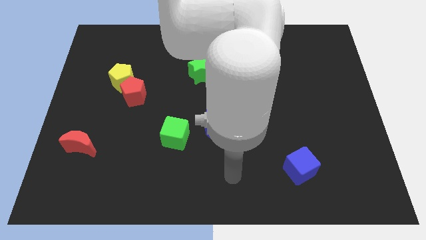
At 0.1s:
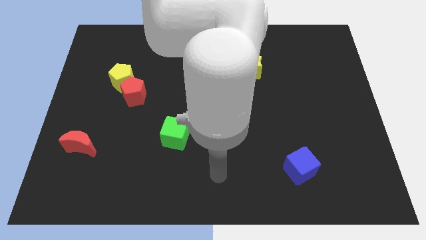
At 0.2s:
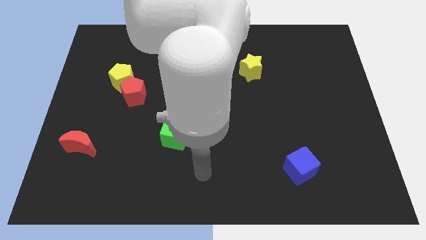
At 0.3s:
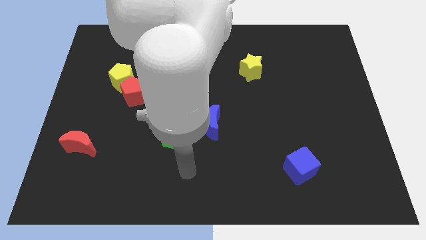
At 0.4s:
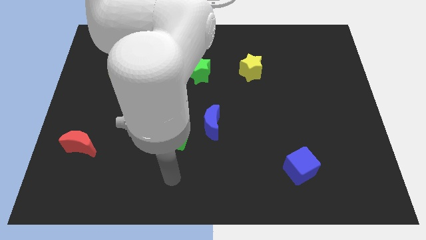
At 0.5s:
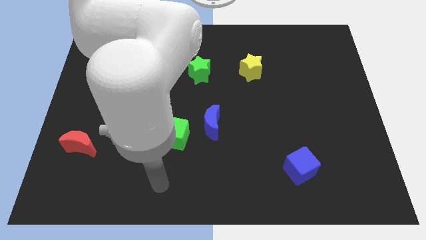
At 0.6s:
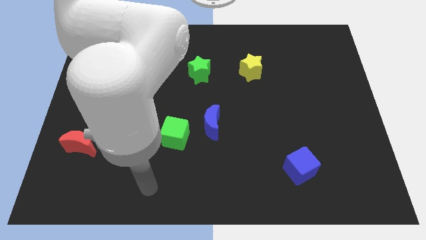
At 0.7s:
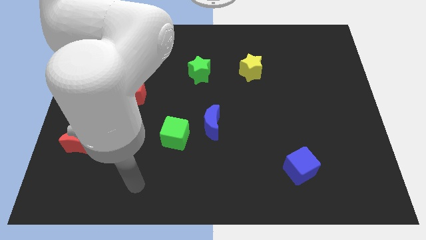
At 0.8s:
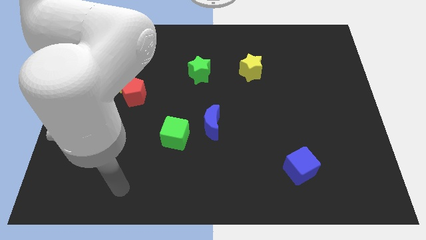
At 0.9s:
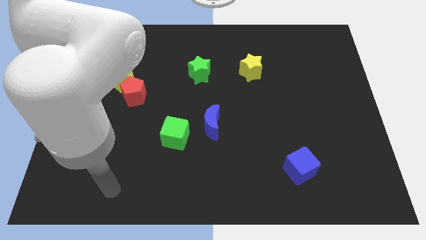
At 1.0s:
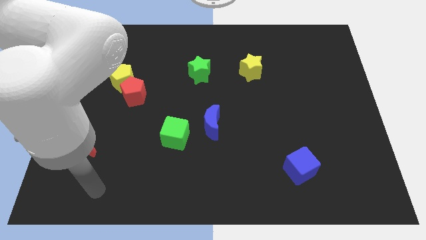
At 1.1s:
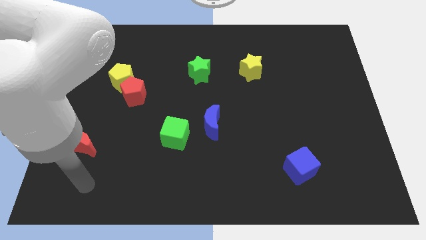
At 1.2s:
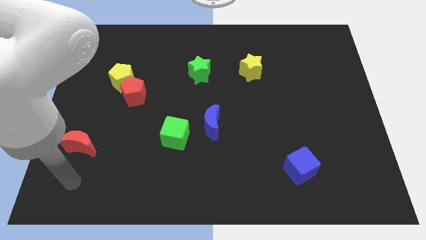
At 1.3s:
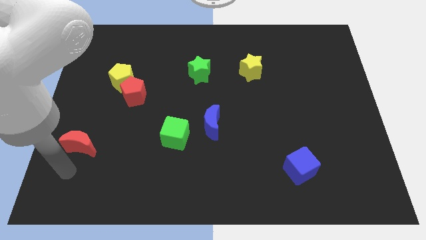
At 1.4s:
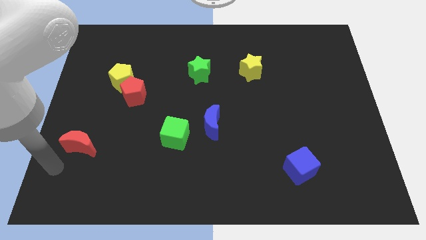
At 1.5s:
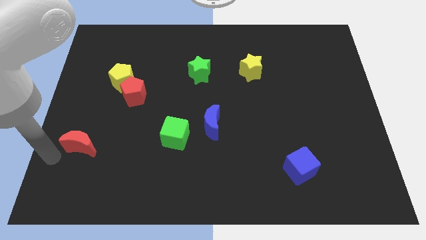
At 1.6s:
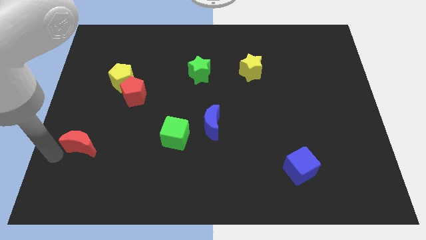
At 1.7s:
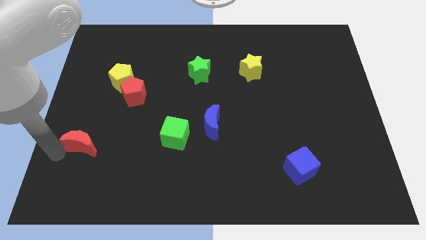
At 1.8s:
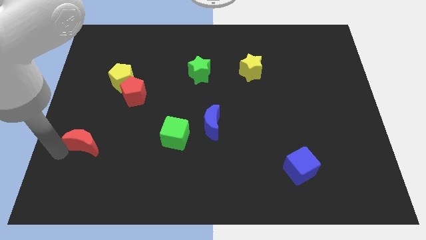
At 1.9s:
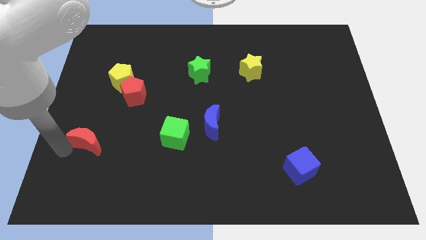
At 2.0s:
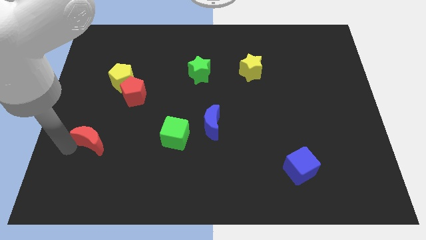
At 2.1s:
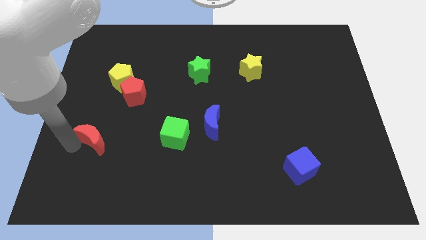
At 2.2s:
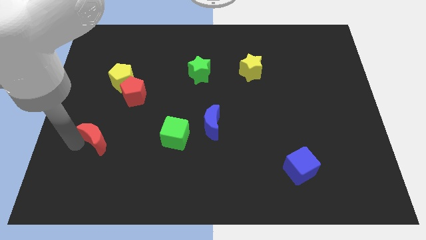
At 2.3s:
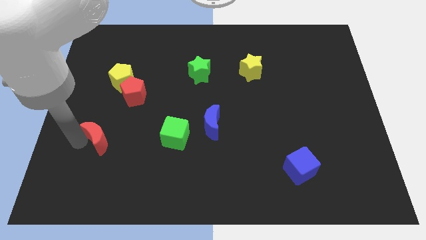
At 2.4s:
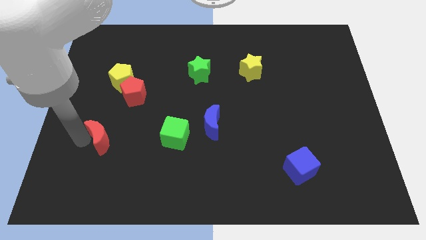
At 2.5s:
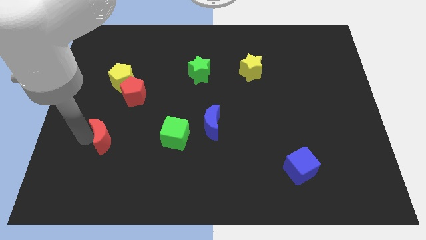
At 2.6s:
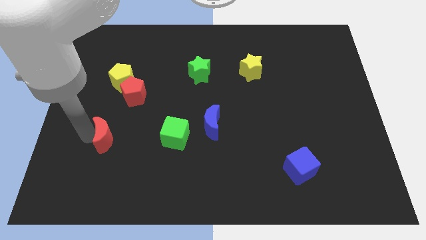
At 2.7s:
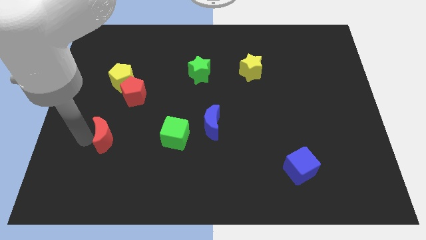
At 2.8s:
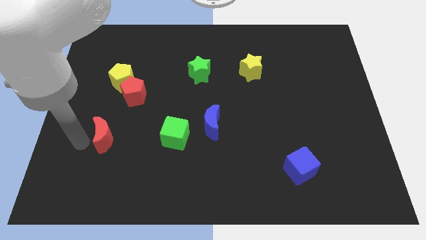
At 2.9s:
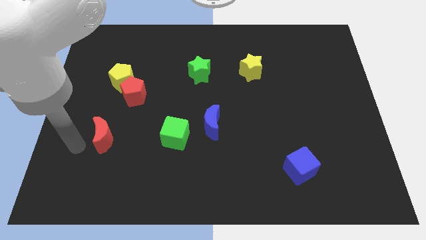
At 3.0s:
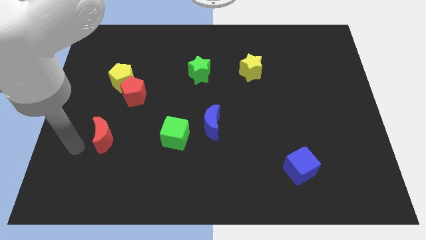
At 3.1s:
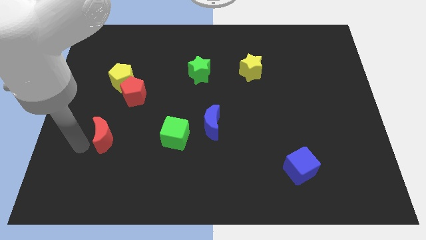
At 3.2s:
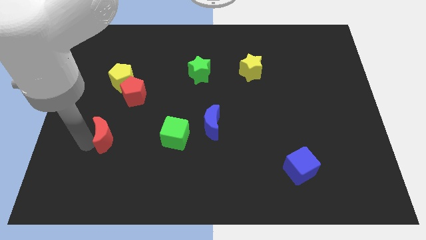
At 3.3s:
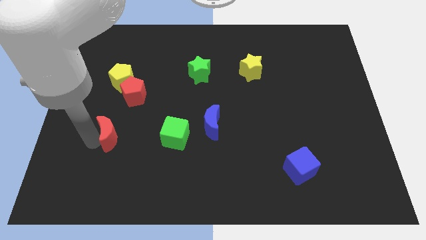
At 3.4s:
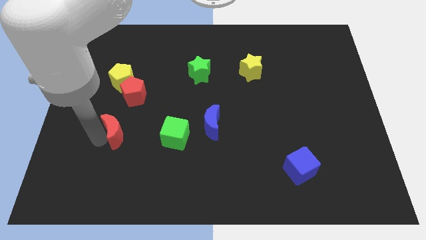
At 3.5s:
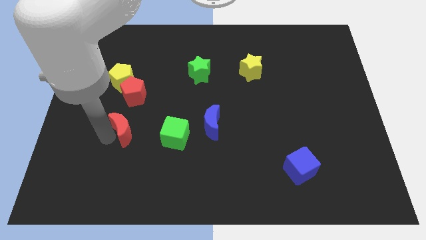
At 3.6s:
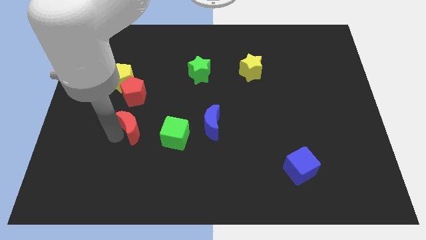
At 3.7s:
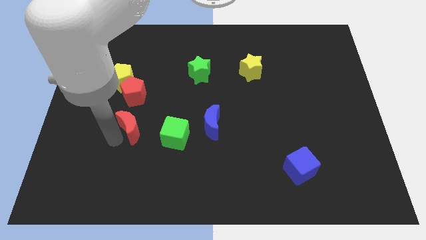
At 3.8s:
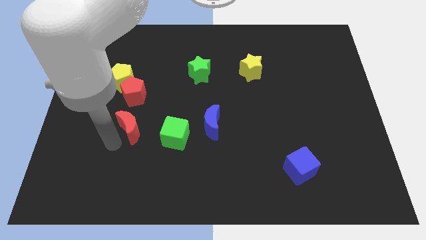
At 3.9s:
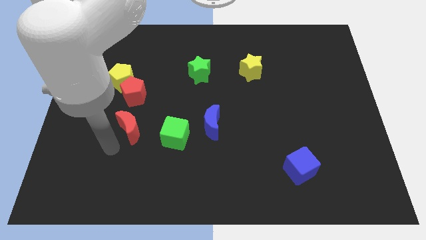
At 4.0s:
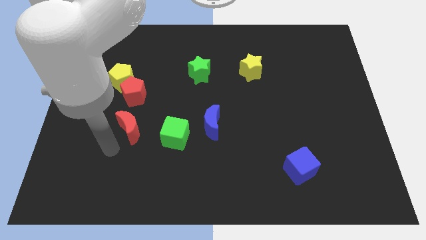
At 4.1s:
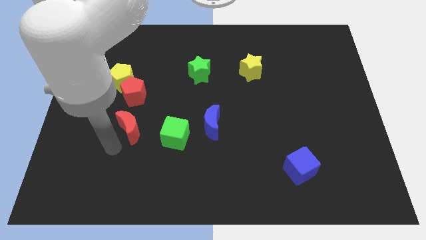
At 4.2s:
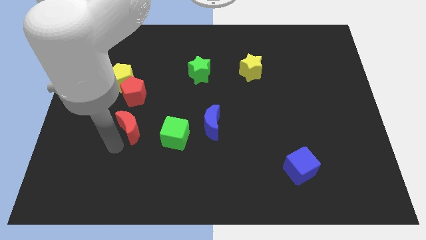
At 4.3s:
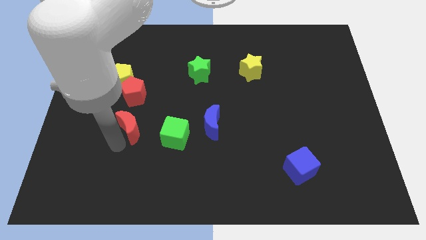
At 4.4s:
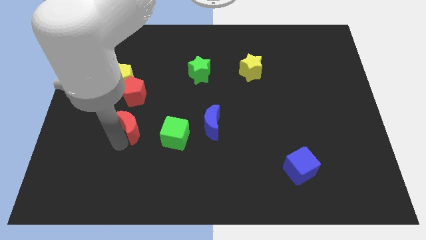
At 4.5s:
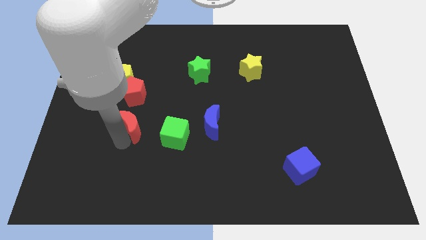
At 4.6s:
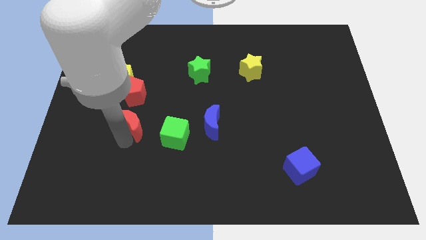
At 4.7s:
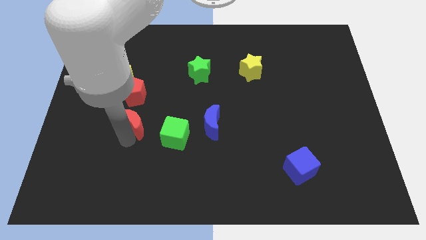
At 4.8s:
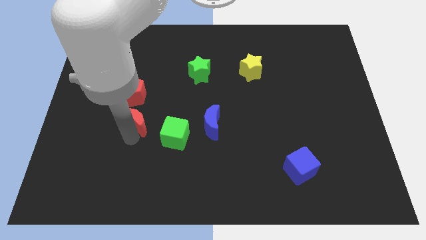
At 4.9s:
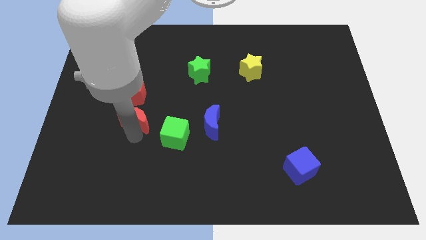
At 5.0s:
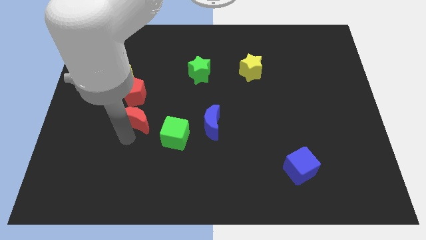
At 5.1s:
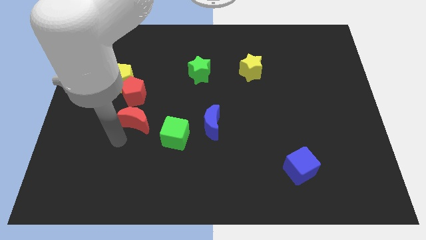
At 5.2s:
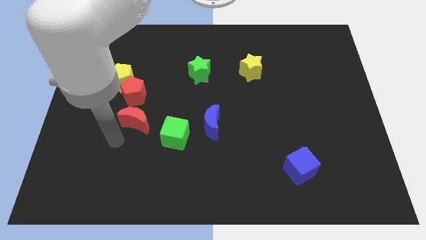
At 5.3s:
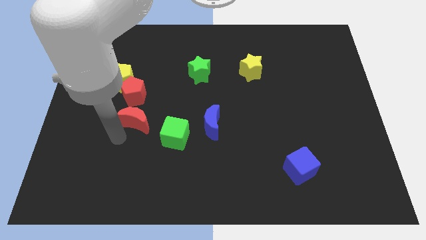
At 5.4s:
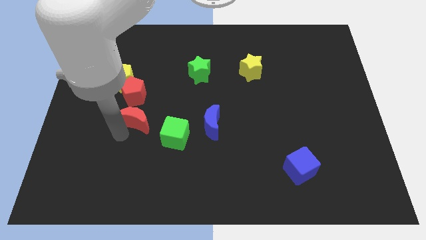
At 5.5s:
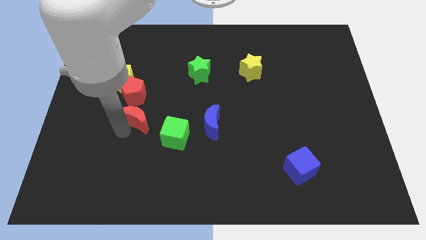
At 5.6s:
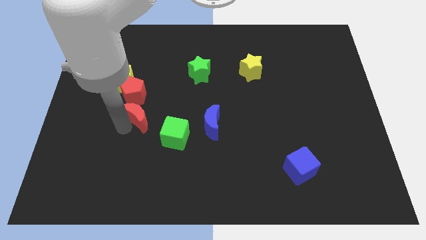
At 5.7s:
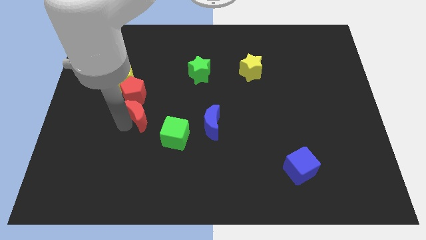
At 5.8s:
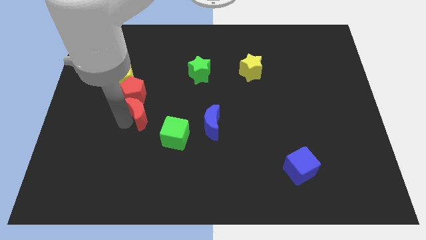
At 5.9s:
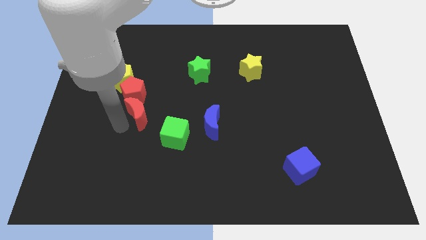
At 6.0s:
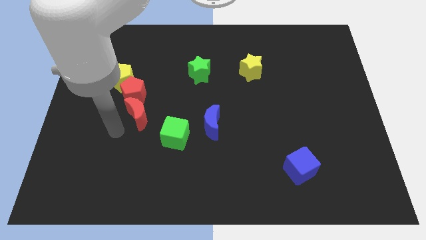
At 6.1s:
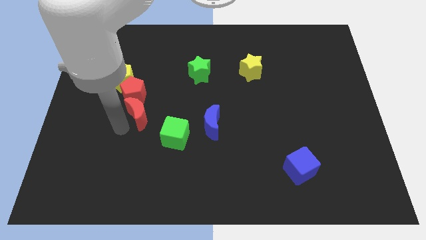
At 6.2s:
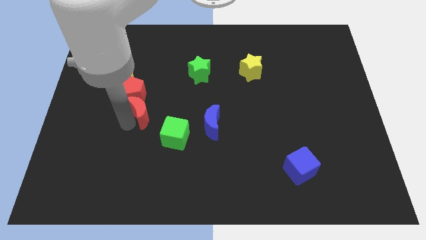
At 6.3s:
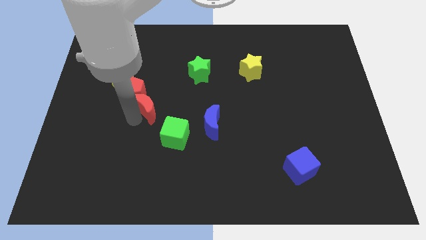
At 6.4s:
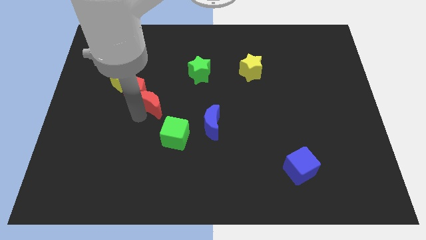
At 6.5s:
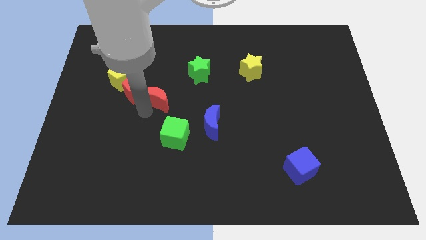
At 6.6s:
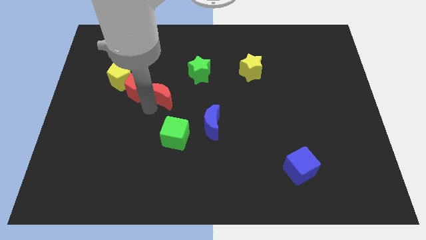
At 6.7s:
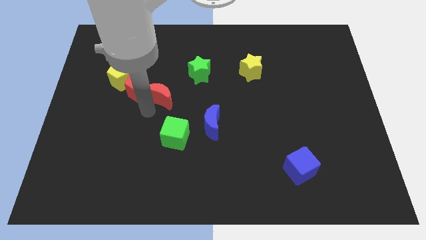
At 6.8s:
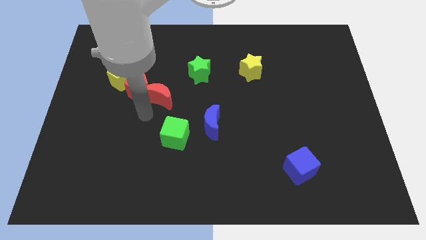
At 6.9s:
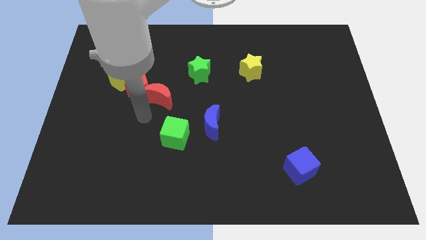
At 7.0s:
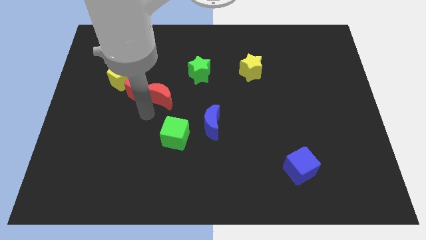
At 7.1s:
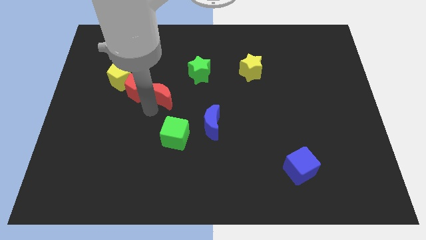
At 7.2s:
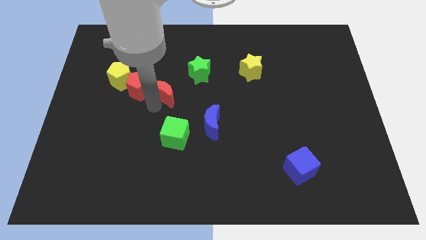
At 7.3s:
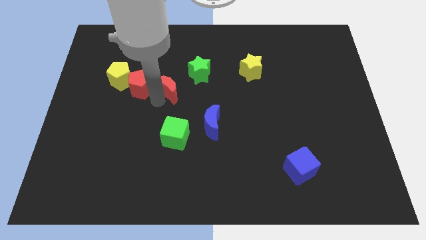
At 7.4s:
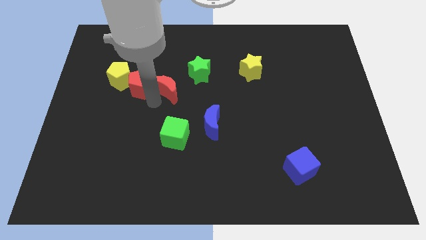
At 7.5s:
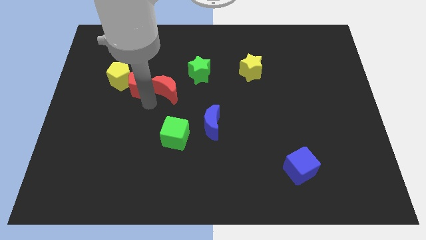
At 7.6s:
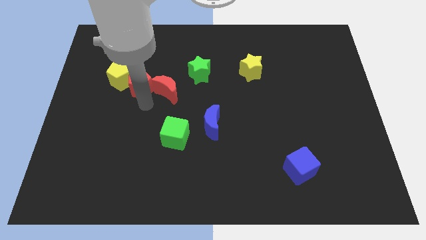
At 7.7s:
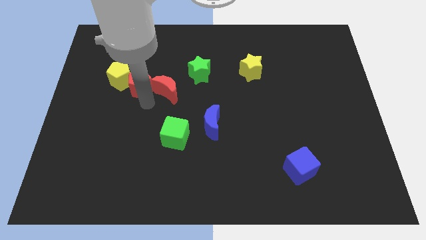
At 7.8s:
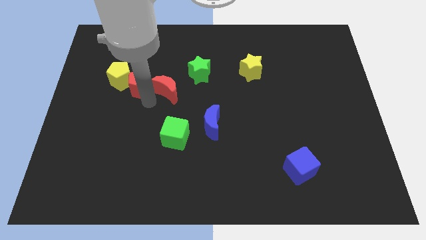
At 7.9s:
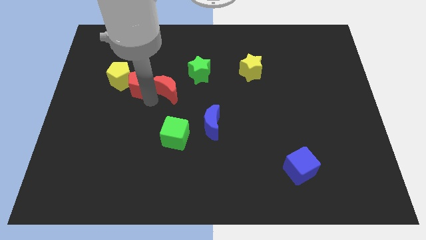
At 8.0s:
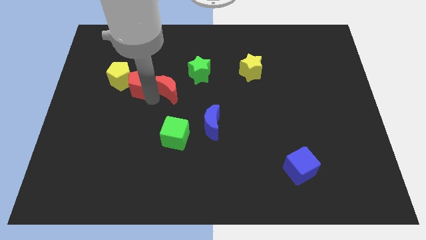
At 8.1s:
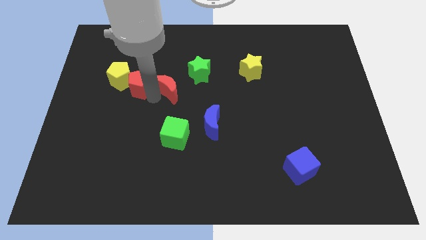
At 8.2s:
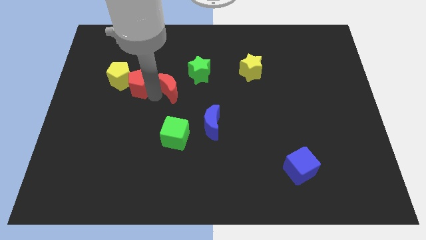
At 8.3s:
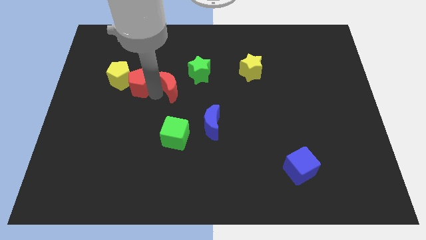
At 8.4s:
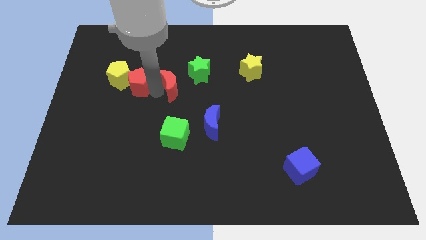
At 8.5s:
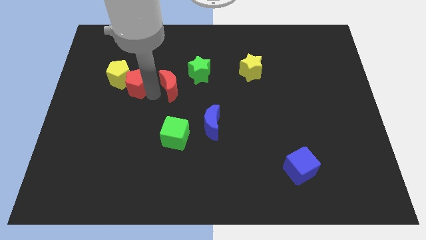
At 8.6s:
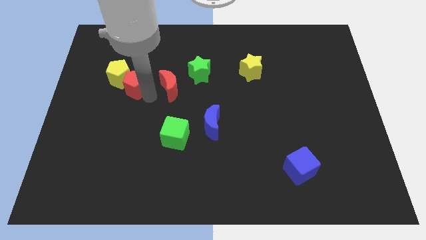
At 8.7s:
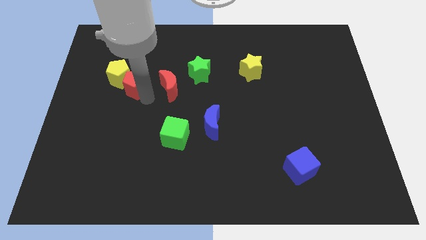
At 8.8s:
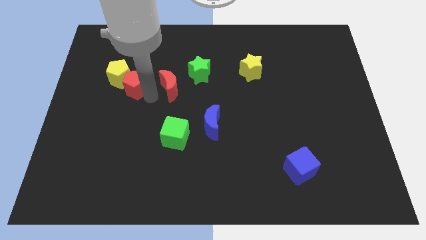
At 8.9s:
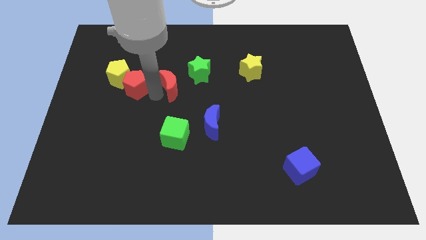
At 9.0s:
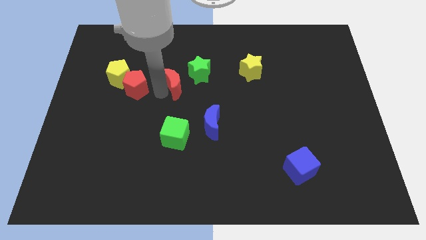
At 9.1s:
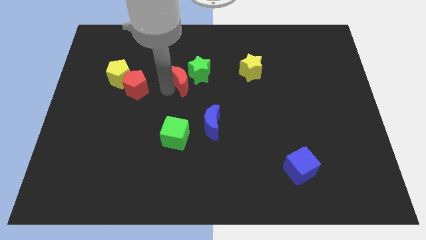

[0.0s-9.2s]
slide the red moon next to the green star
